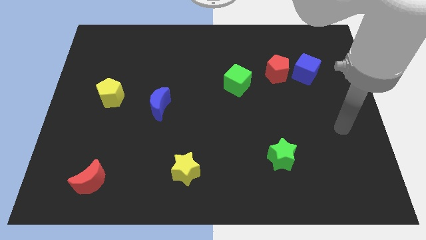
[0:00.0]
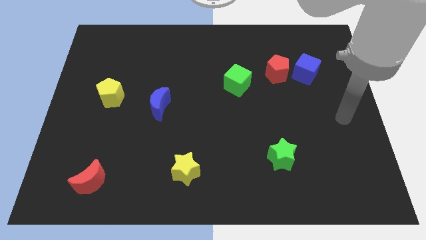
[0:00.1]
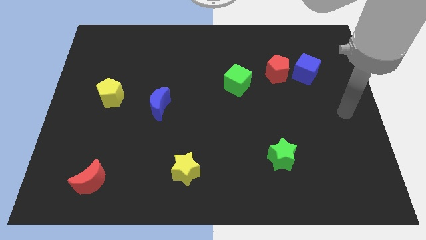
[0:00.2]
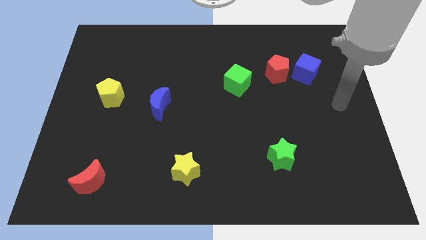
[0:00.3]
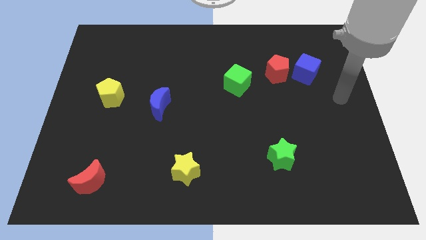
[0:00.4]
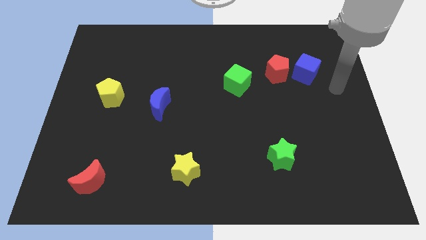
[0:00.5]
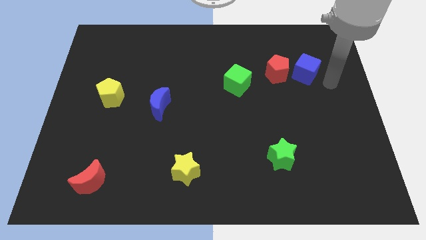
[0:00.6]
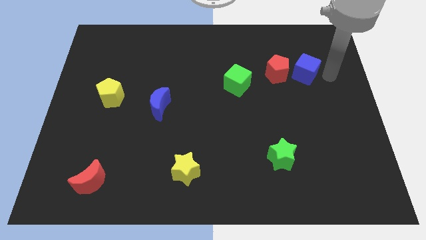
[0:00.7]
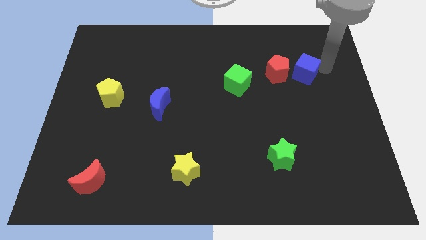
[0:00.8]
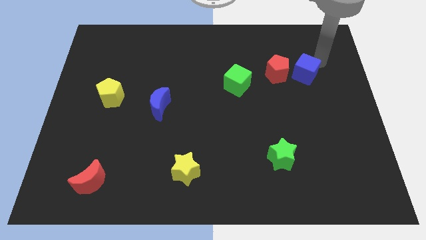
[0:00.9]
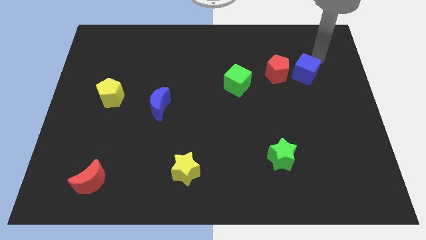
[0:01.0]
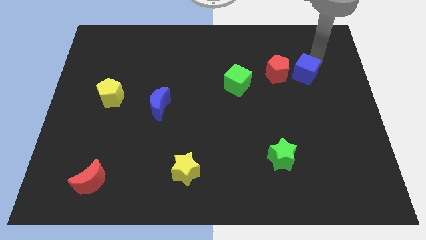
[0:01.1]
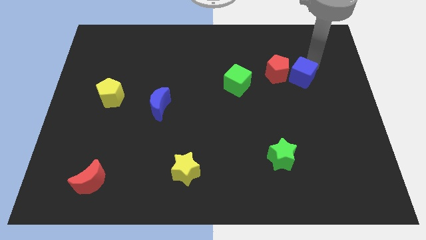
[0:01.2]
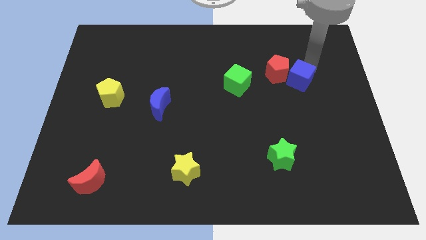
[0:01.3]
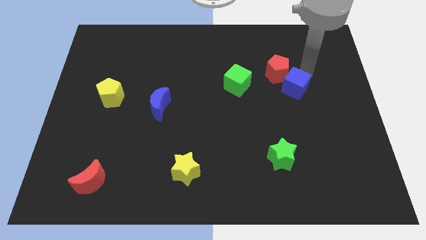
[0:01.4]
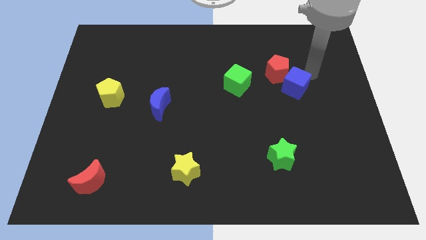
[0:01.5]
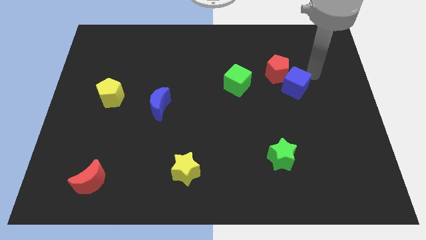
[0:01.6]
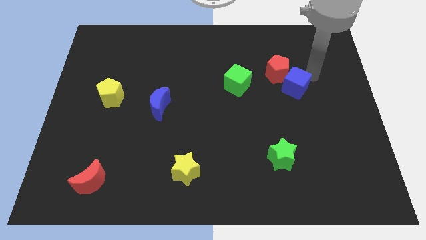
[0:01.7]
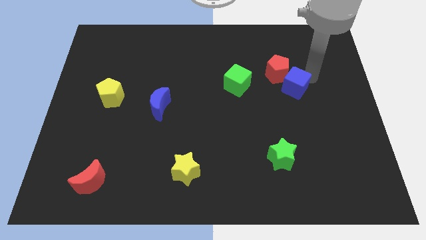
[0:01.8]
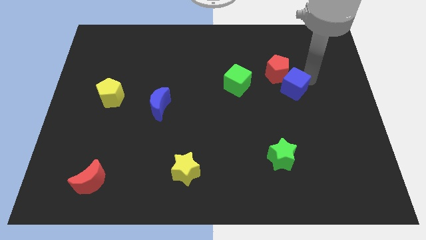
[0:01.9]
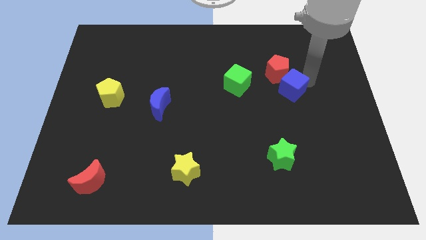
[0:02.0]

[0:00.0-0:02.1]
move the blue cube a little down and to the left
